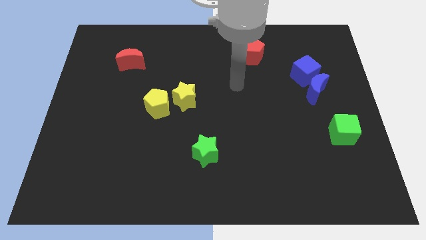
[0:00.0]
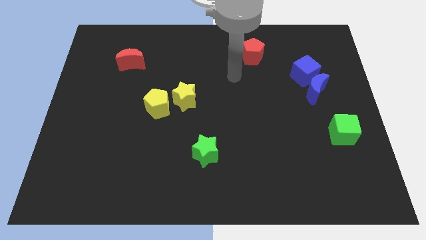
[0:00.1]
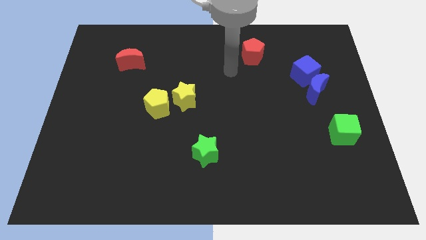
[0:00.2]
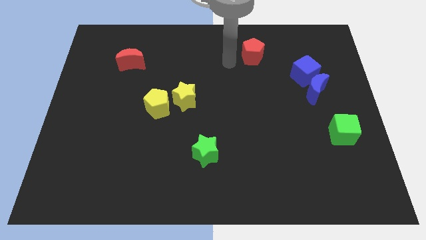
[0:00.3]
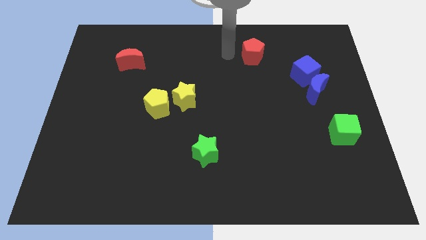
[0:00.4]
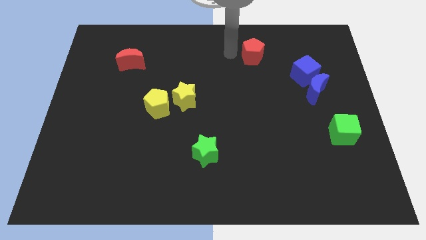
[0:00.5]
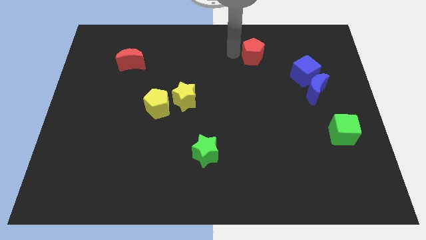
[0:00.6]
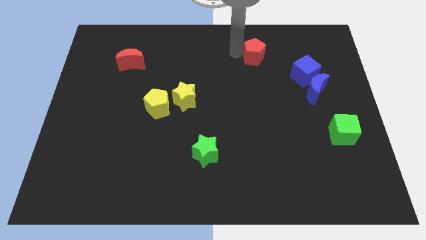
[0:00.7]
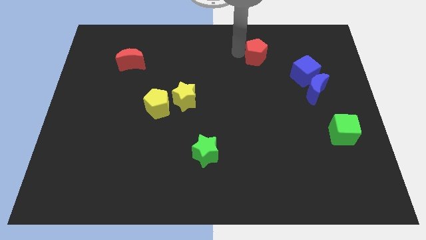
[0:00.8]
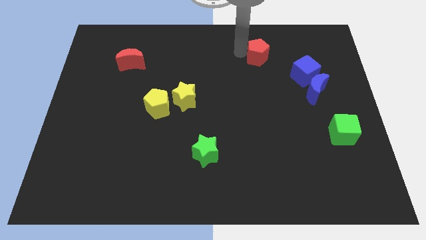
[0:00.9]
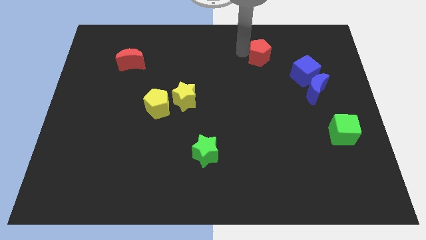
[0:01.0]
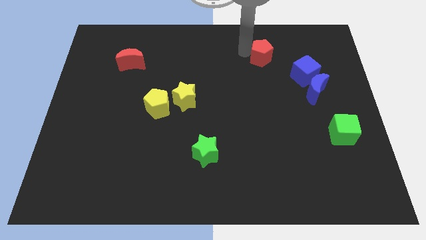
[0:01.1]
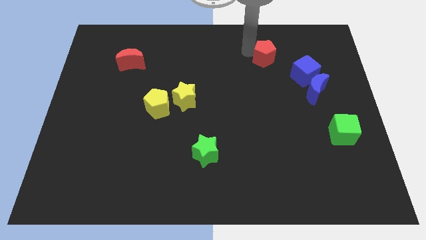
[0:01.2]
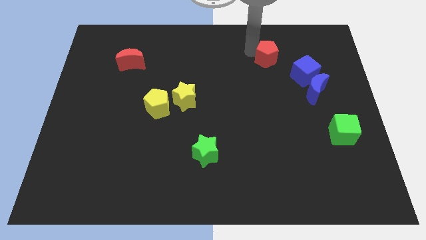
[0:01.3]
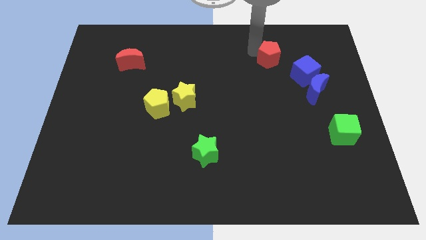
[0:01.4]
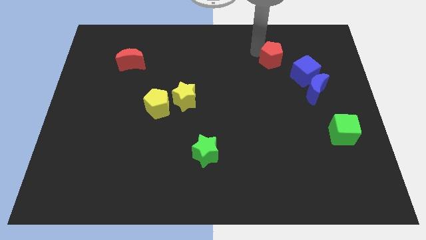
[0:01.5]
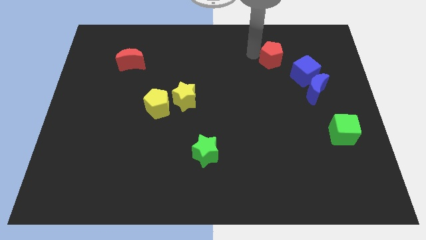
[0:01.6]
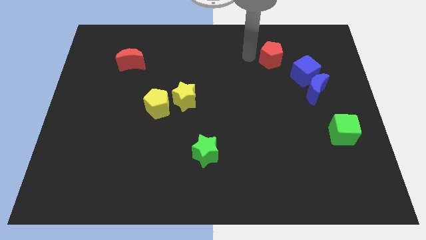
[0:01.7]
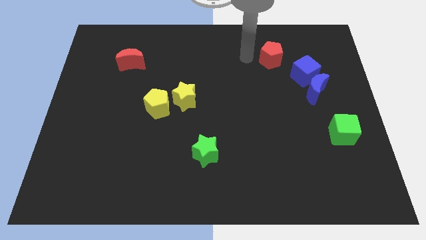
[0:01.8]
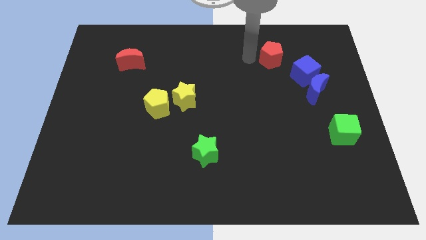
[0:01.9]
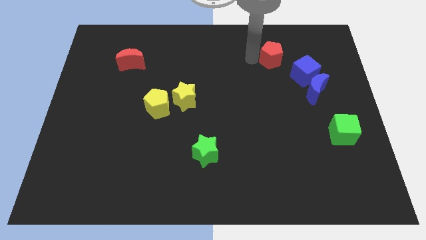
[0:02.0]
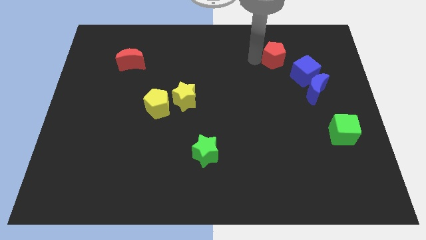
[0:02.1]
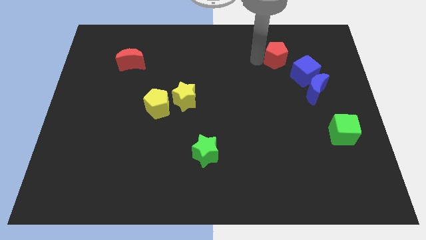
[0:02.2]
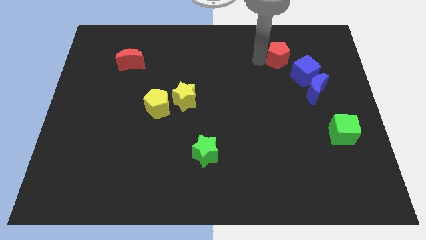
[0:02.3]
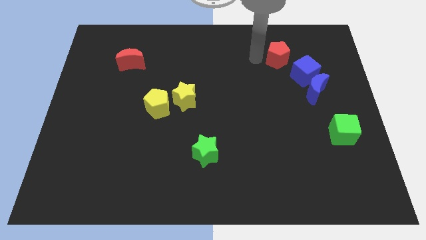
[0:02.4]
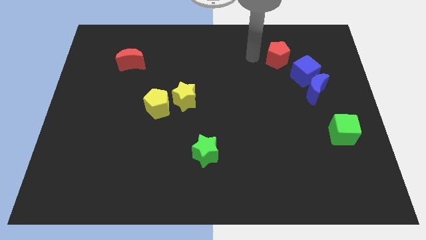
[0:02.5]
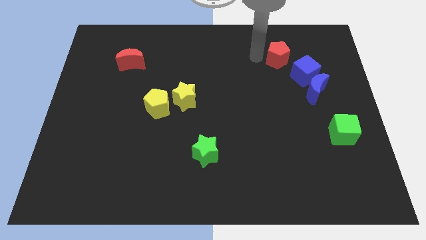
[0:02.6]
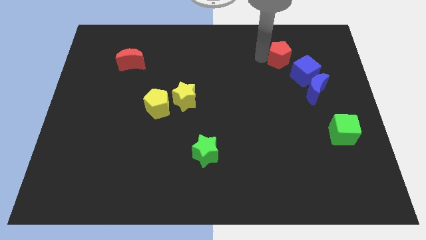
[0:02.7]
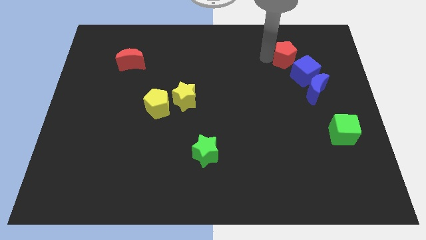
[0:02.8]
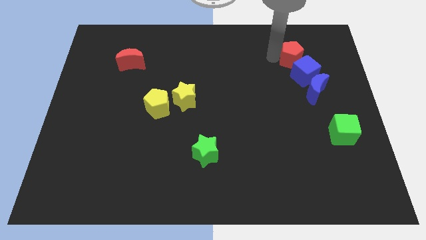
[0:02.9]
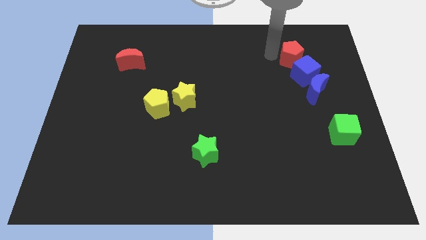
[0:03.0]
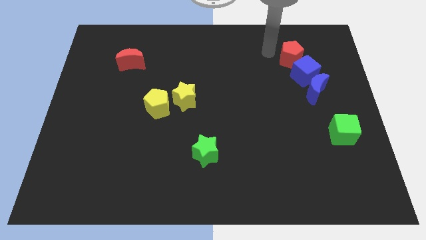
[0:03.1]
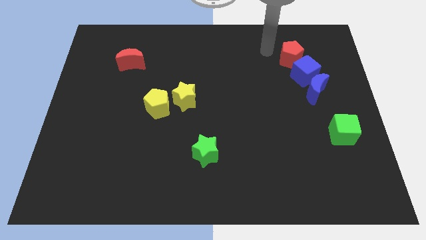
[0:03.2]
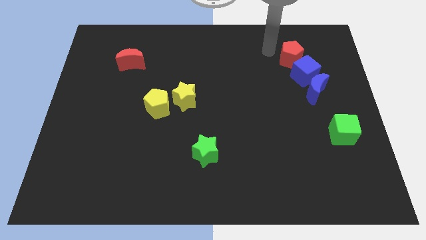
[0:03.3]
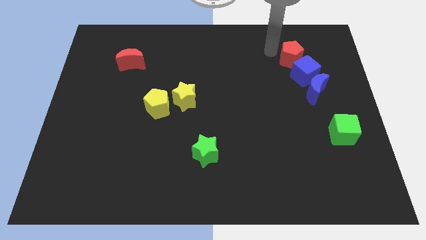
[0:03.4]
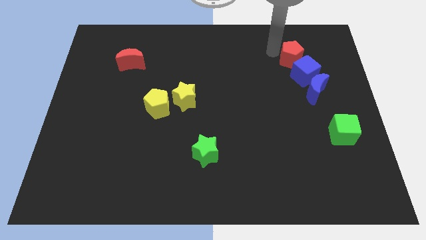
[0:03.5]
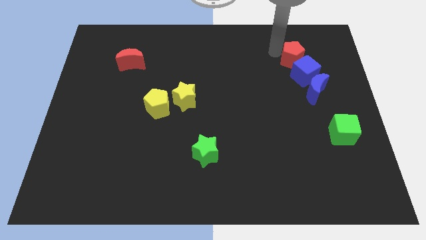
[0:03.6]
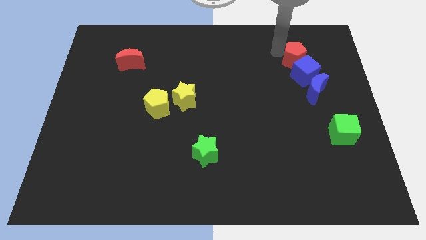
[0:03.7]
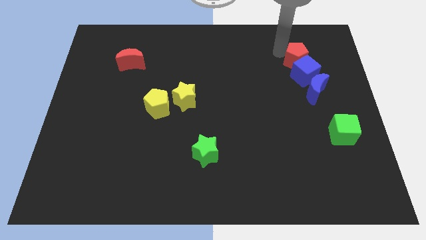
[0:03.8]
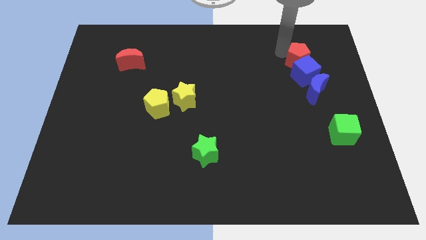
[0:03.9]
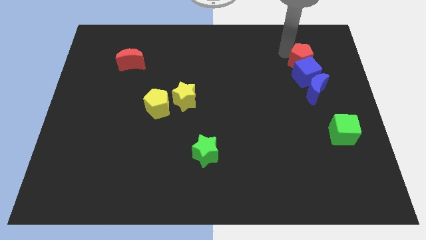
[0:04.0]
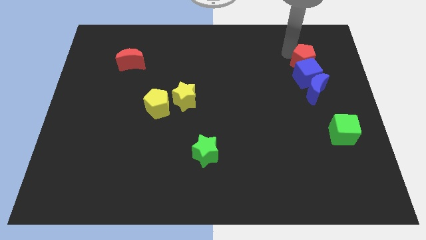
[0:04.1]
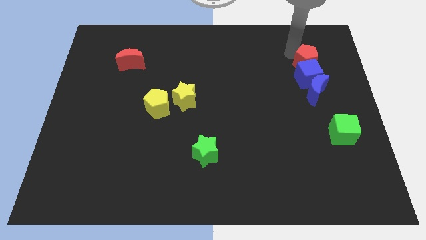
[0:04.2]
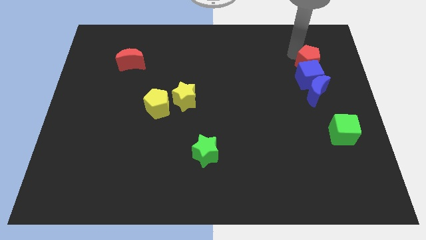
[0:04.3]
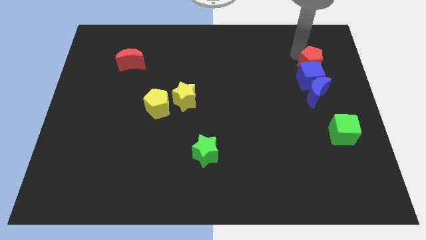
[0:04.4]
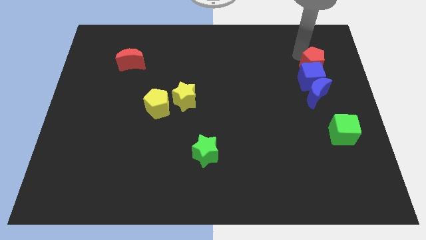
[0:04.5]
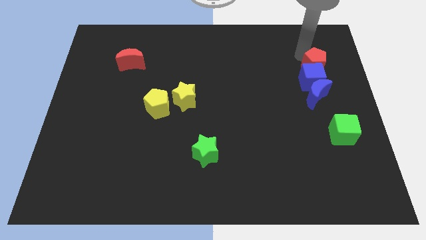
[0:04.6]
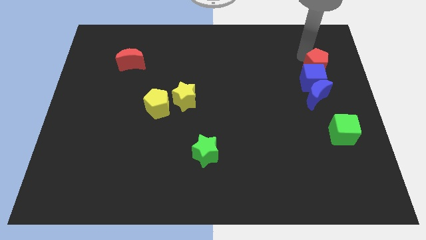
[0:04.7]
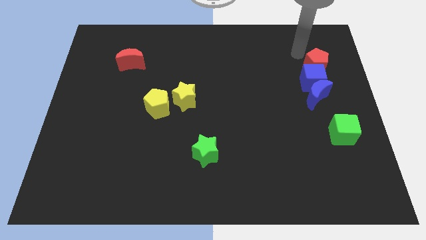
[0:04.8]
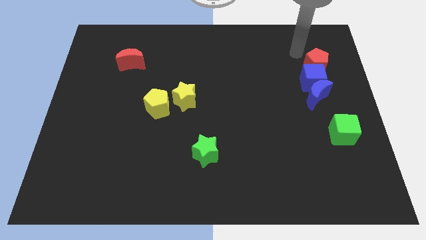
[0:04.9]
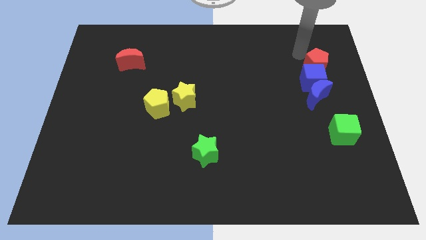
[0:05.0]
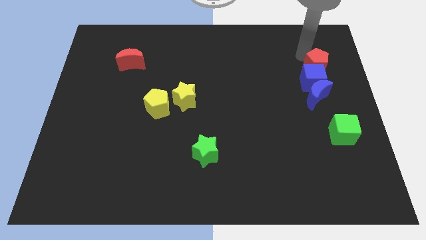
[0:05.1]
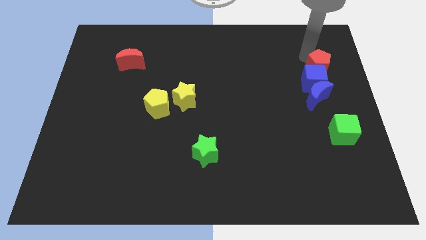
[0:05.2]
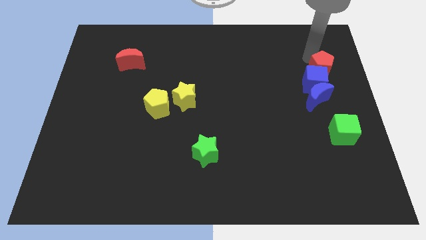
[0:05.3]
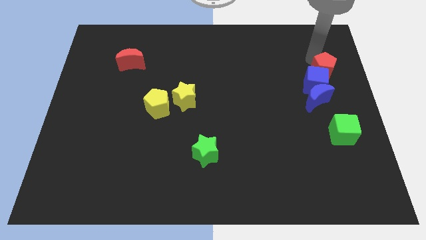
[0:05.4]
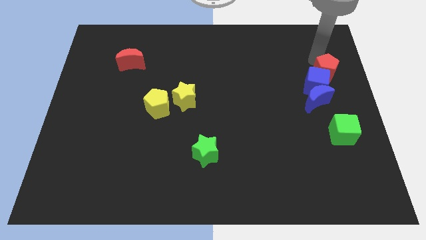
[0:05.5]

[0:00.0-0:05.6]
slide the red pentagon to the right side

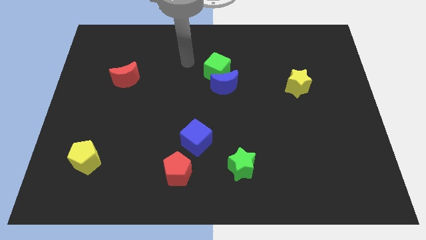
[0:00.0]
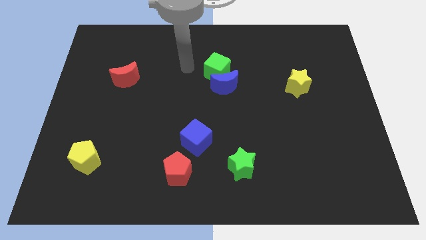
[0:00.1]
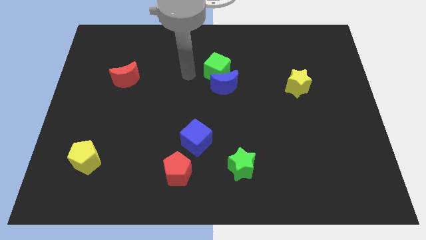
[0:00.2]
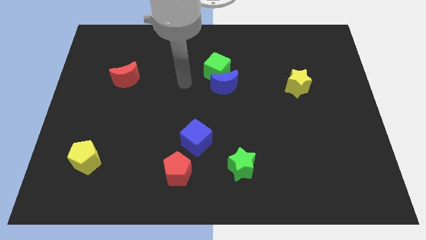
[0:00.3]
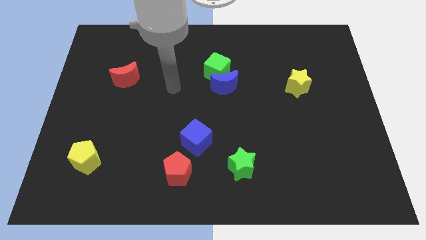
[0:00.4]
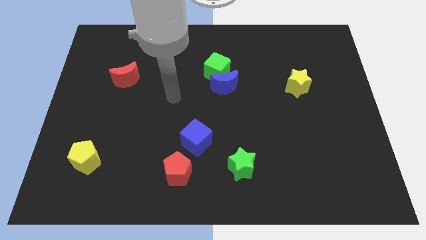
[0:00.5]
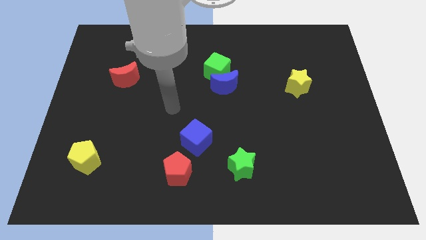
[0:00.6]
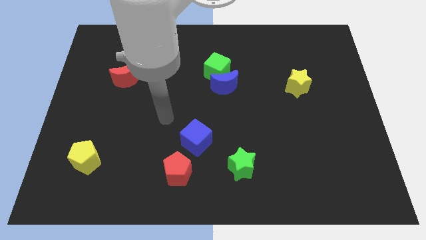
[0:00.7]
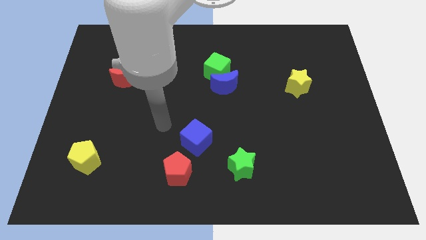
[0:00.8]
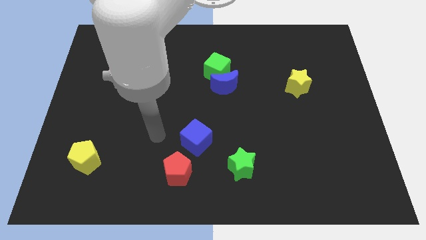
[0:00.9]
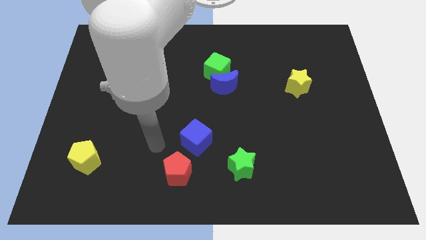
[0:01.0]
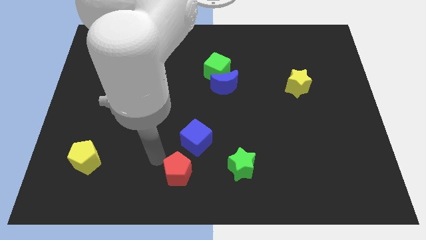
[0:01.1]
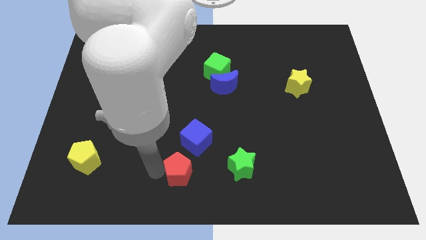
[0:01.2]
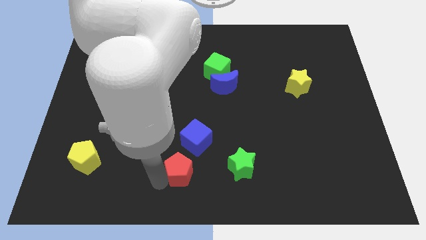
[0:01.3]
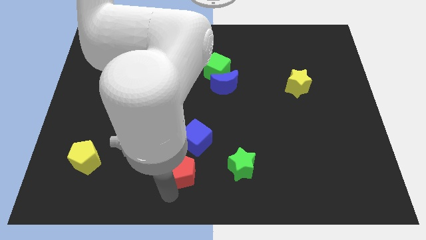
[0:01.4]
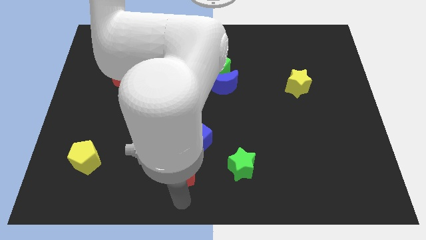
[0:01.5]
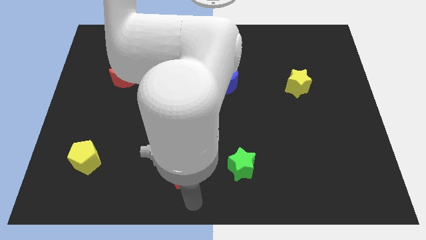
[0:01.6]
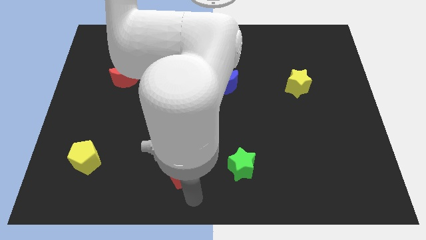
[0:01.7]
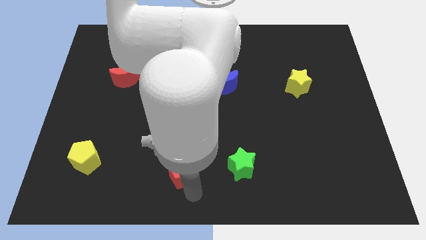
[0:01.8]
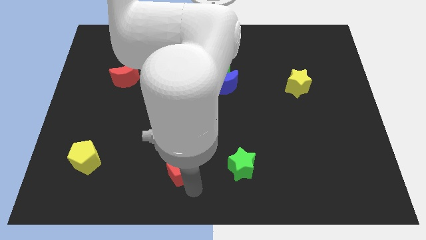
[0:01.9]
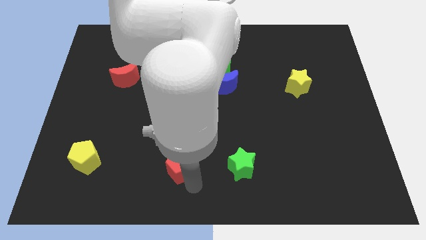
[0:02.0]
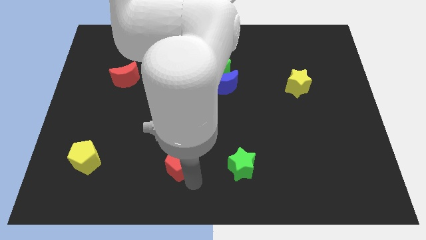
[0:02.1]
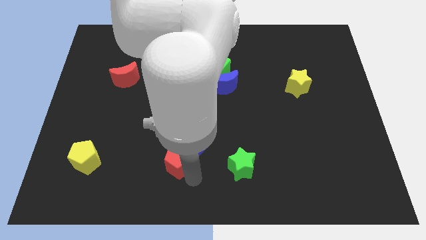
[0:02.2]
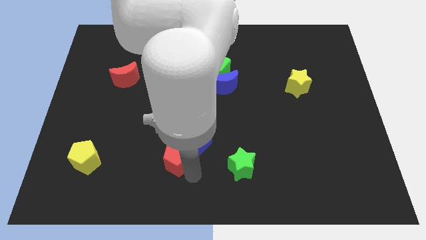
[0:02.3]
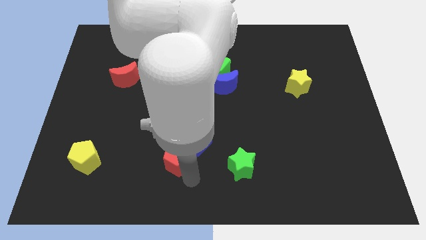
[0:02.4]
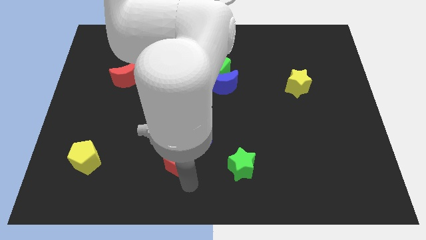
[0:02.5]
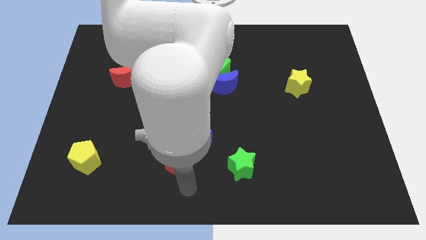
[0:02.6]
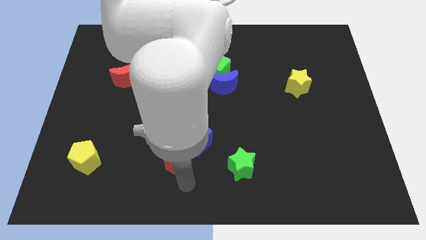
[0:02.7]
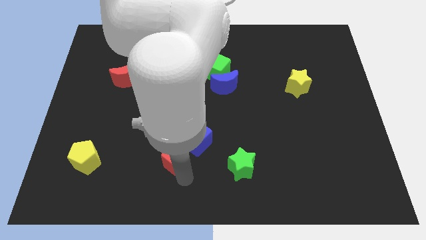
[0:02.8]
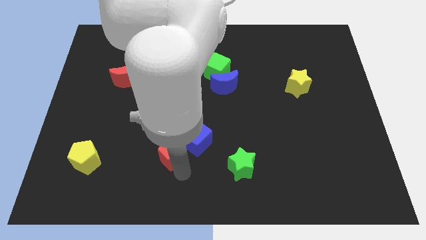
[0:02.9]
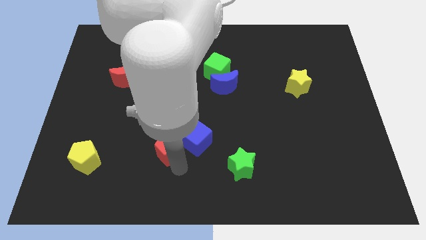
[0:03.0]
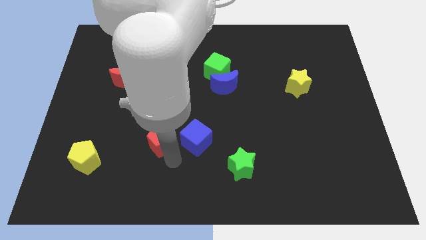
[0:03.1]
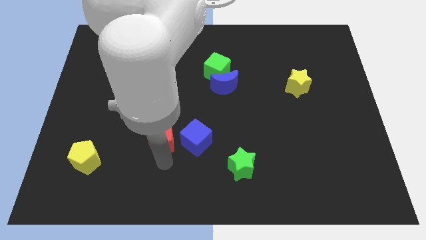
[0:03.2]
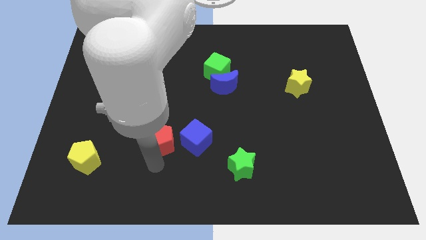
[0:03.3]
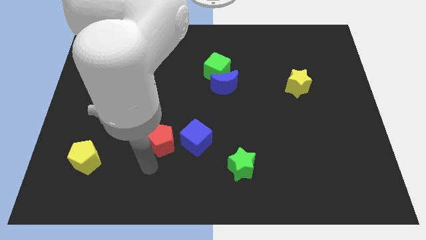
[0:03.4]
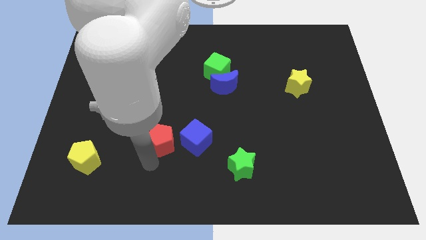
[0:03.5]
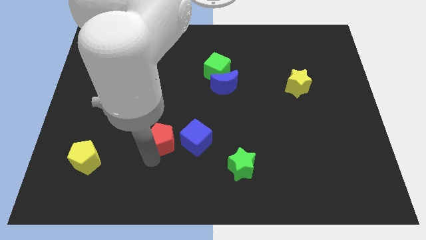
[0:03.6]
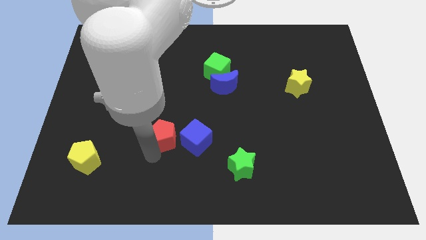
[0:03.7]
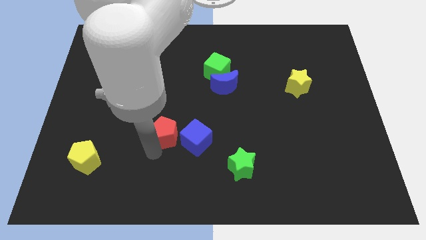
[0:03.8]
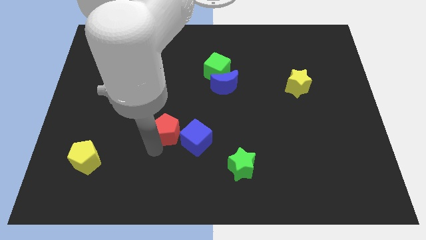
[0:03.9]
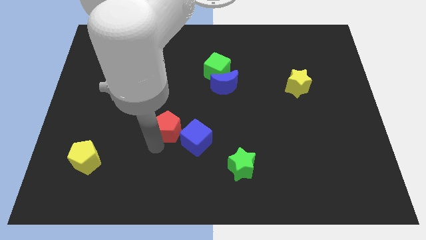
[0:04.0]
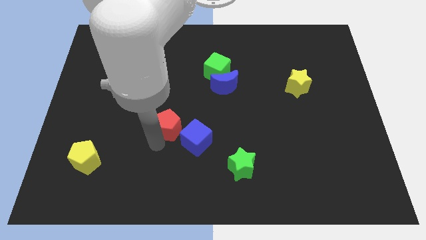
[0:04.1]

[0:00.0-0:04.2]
slide the red pentagon to the center of the board
